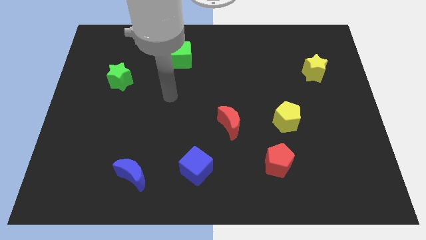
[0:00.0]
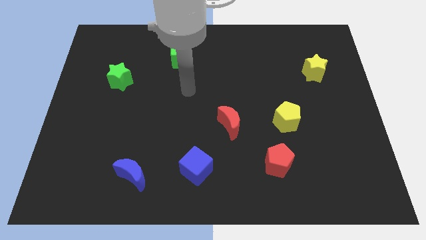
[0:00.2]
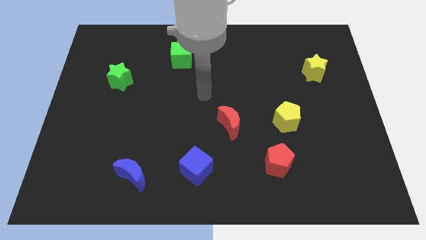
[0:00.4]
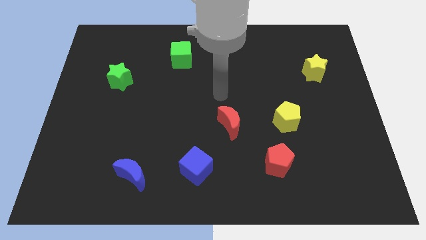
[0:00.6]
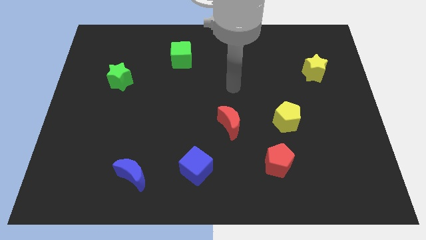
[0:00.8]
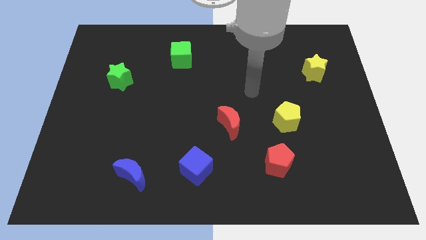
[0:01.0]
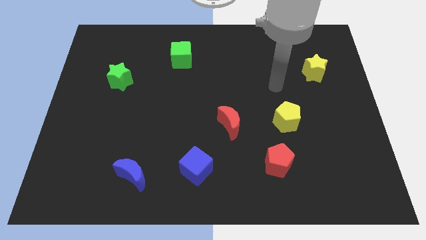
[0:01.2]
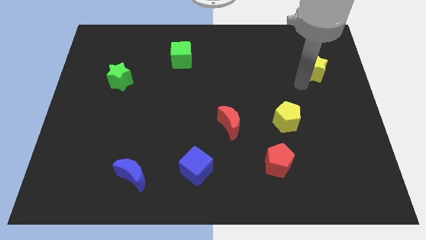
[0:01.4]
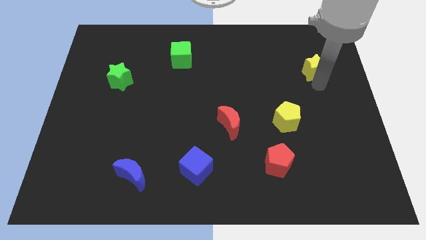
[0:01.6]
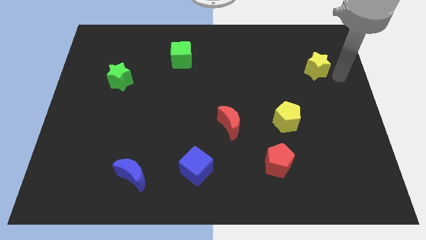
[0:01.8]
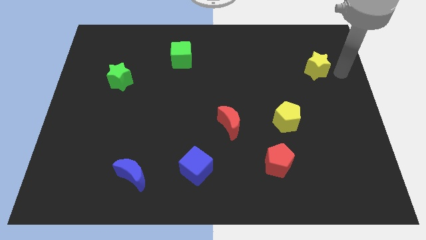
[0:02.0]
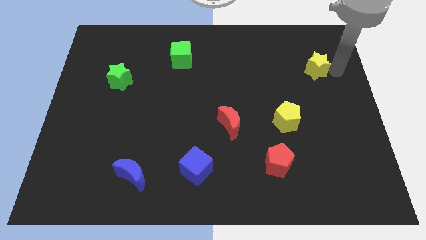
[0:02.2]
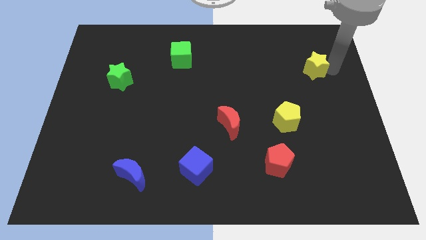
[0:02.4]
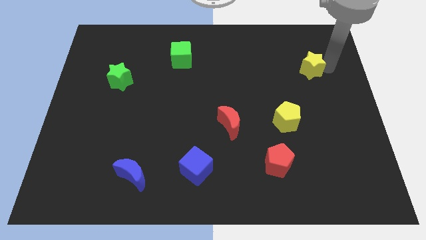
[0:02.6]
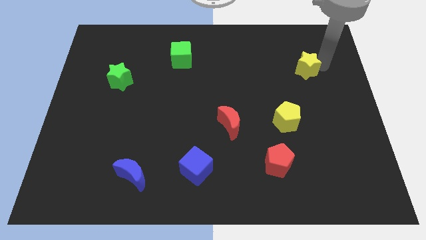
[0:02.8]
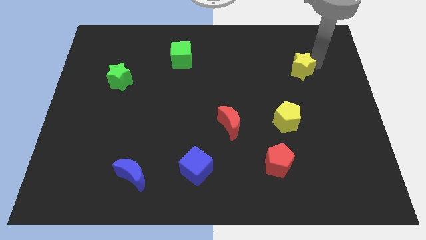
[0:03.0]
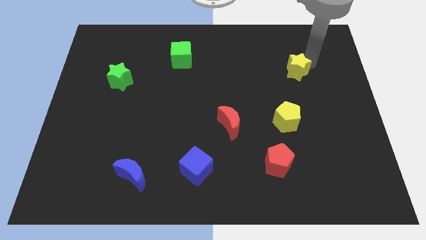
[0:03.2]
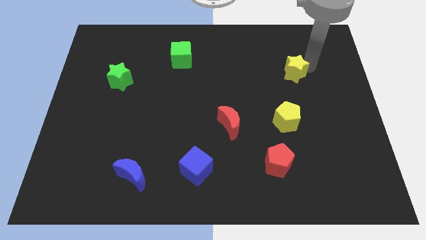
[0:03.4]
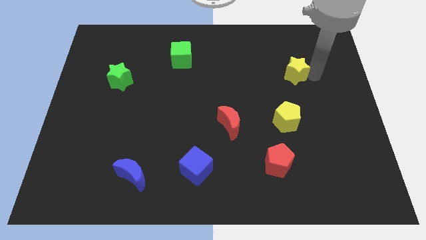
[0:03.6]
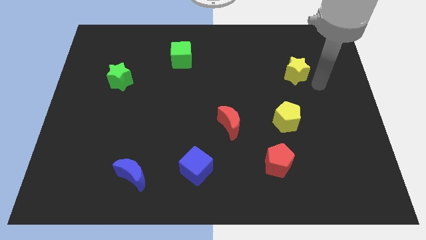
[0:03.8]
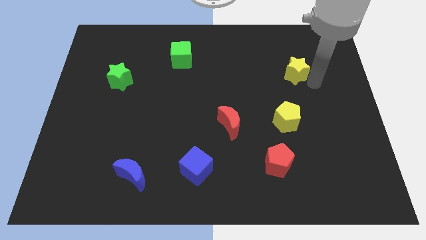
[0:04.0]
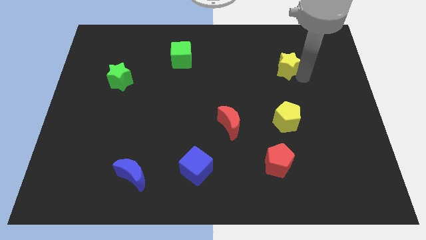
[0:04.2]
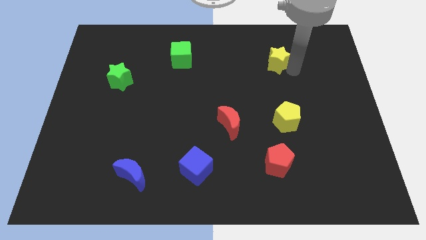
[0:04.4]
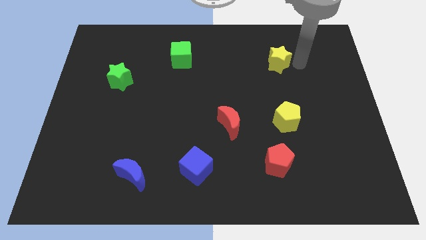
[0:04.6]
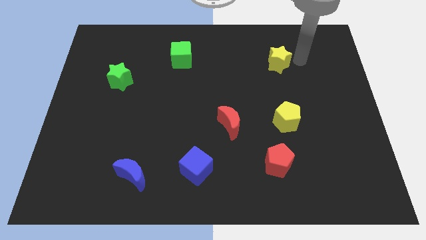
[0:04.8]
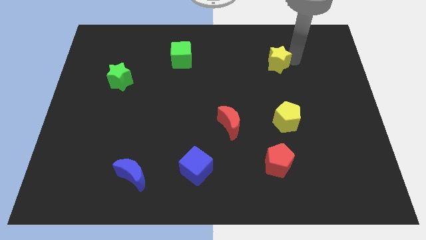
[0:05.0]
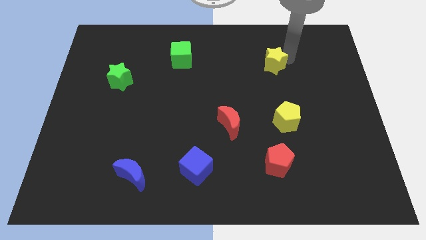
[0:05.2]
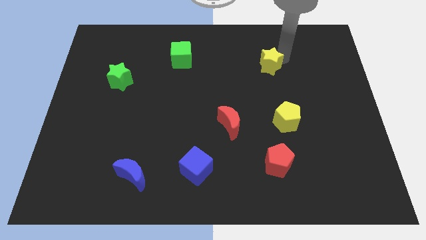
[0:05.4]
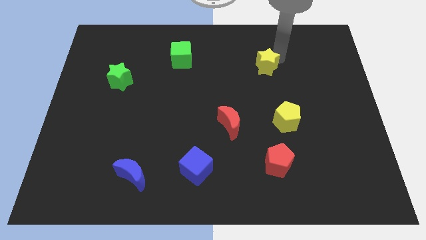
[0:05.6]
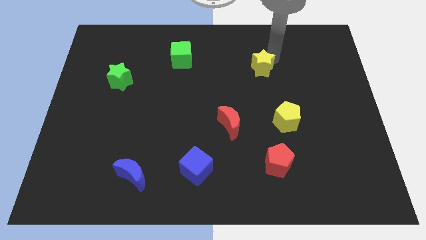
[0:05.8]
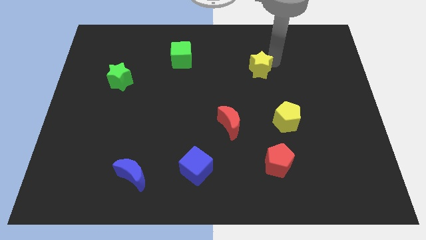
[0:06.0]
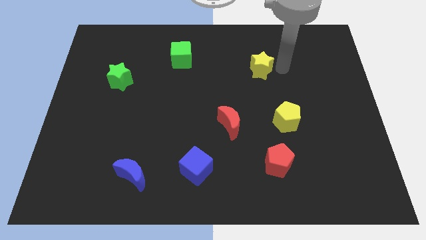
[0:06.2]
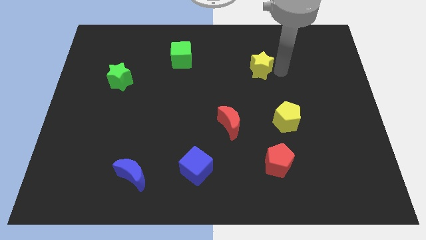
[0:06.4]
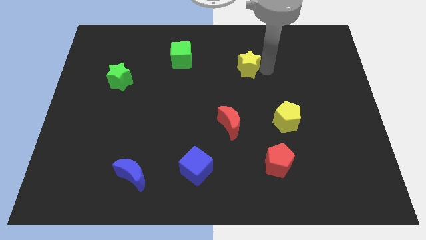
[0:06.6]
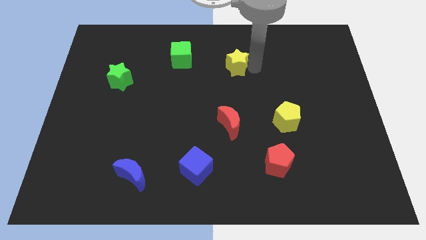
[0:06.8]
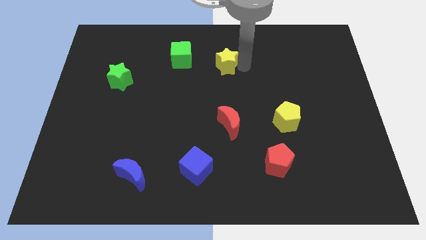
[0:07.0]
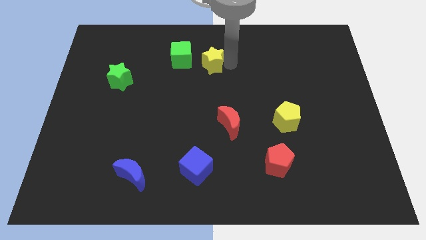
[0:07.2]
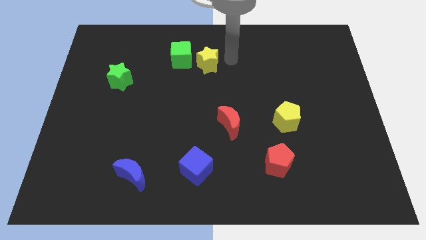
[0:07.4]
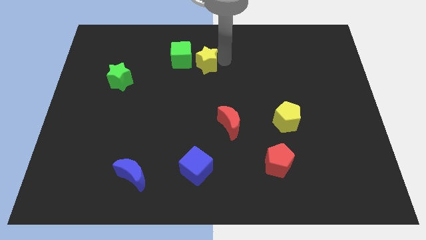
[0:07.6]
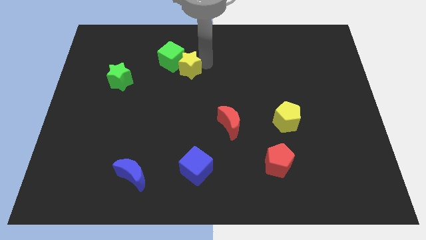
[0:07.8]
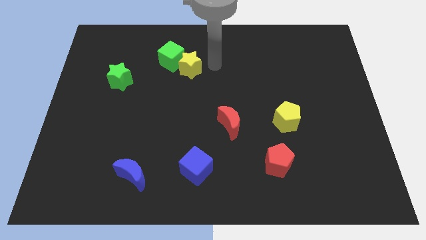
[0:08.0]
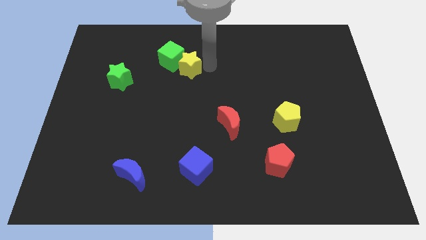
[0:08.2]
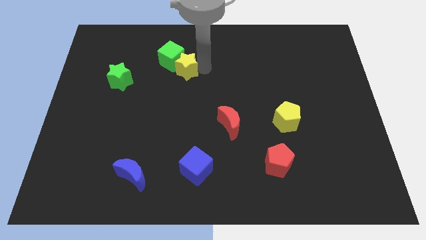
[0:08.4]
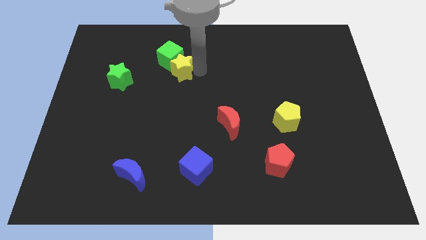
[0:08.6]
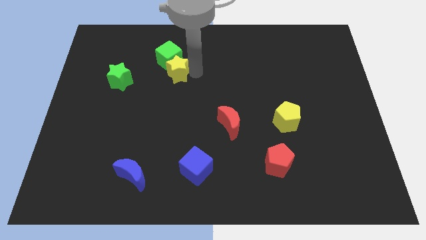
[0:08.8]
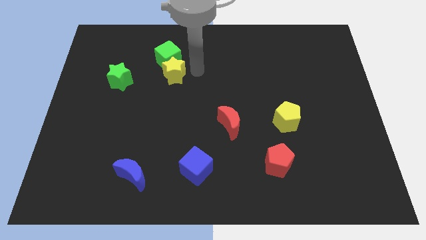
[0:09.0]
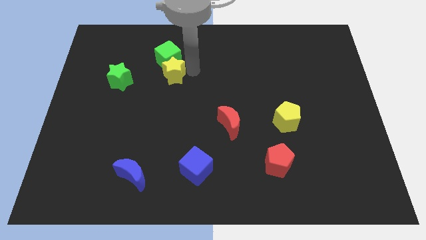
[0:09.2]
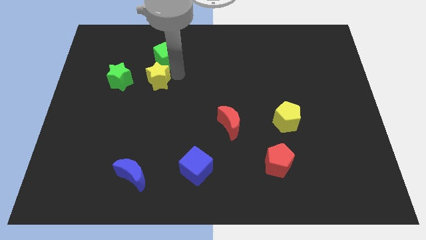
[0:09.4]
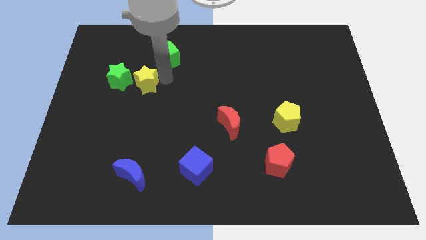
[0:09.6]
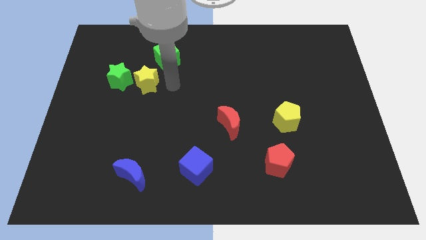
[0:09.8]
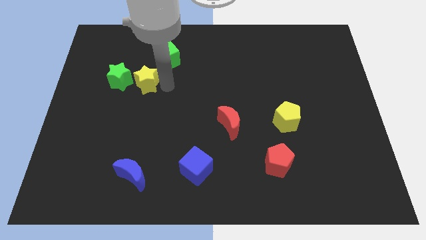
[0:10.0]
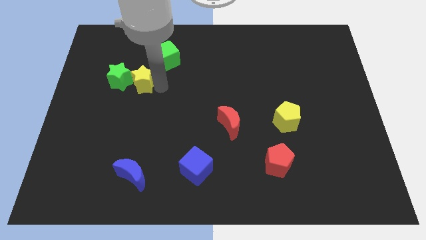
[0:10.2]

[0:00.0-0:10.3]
slide the yellow star to the green star

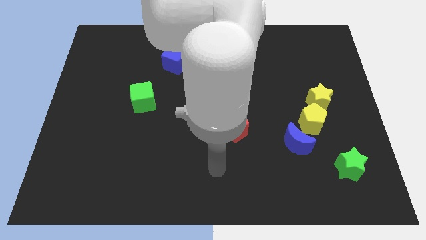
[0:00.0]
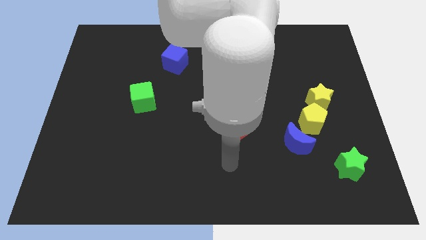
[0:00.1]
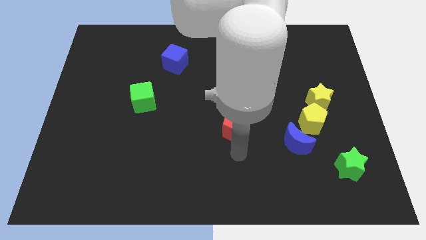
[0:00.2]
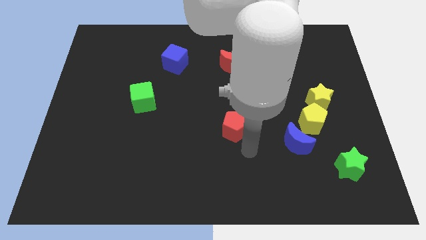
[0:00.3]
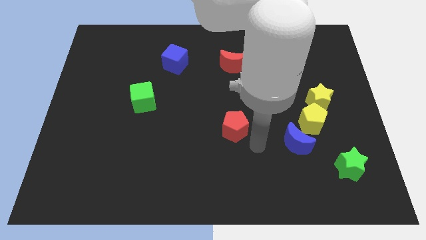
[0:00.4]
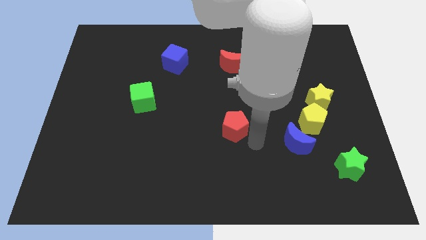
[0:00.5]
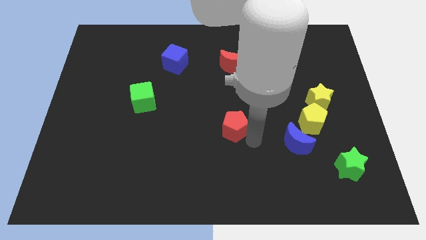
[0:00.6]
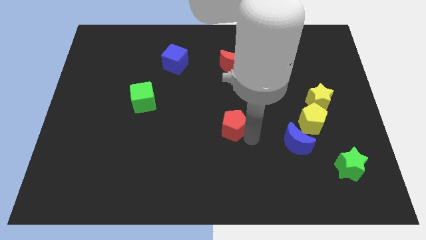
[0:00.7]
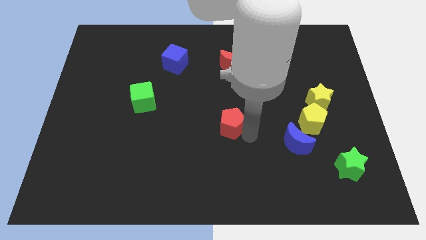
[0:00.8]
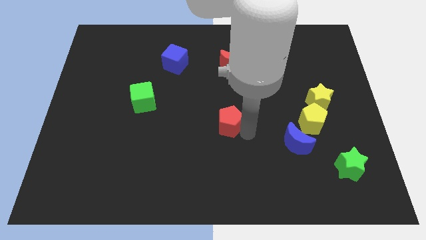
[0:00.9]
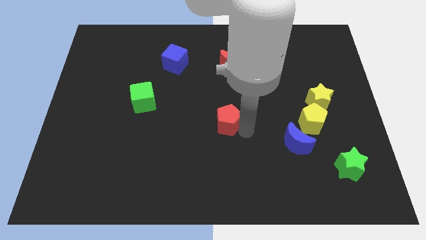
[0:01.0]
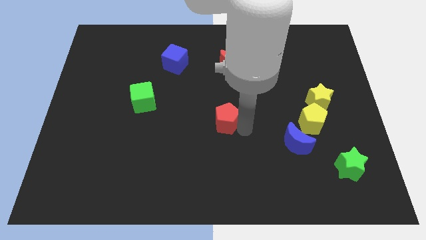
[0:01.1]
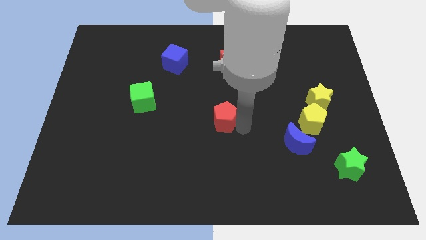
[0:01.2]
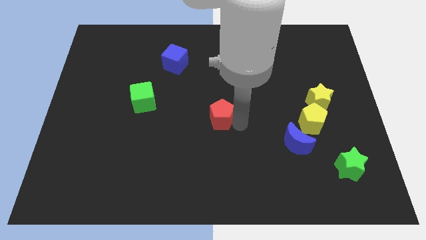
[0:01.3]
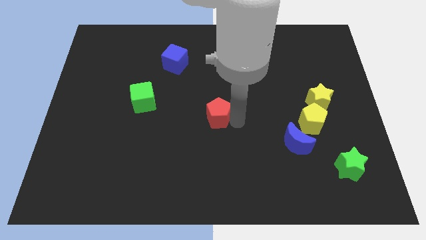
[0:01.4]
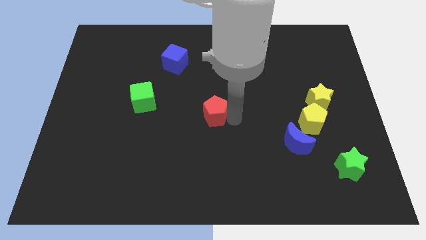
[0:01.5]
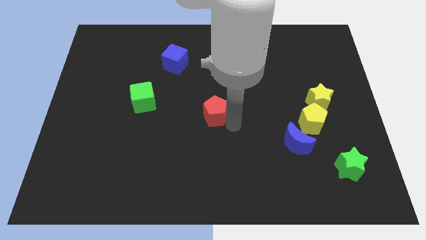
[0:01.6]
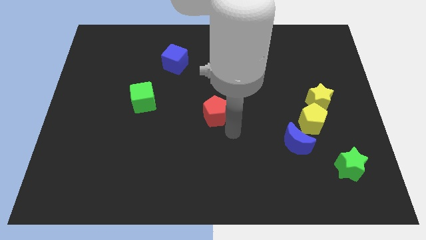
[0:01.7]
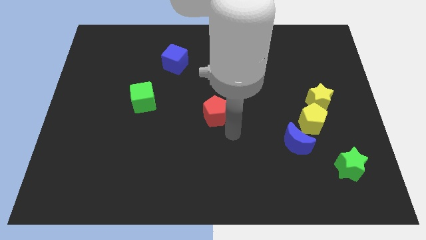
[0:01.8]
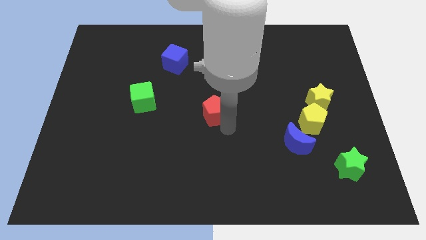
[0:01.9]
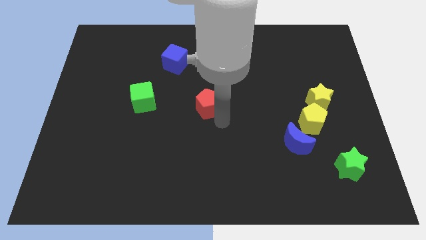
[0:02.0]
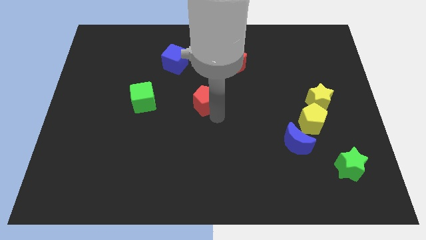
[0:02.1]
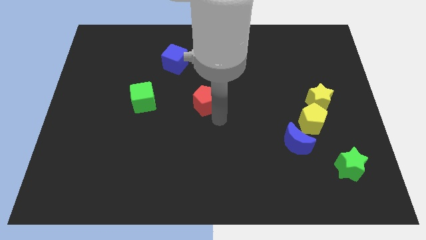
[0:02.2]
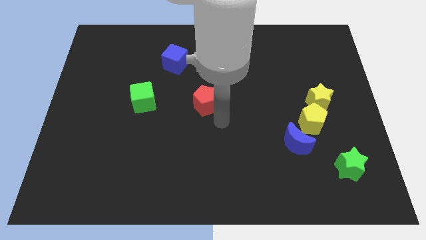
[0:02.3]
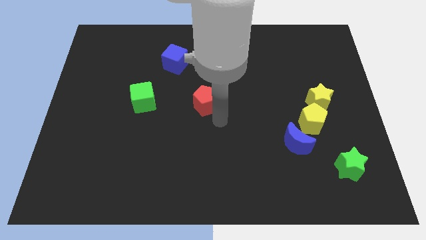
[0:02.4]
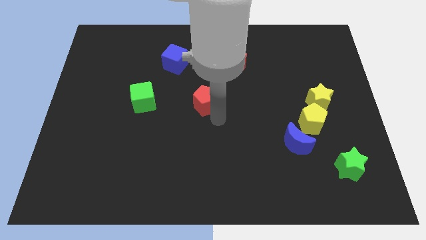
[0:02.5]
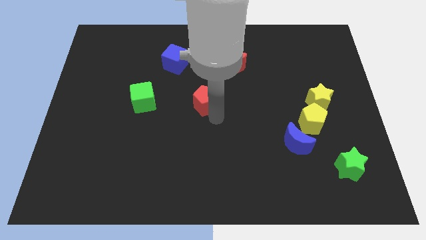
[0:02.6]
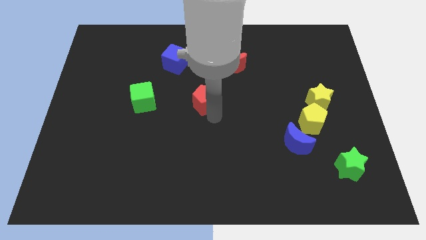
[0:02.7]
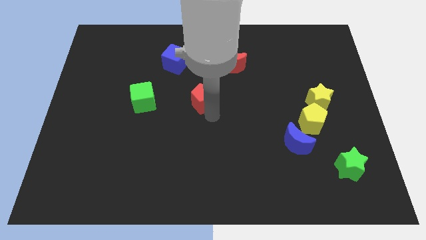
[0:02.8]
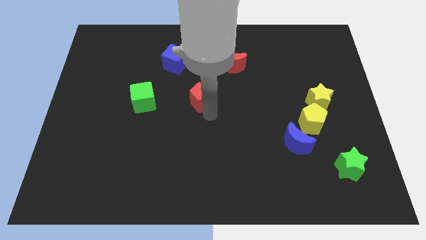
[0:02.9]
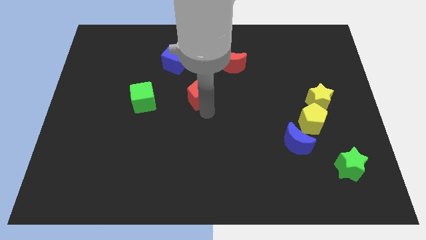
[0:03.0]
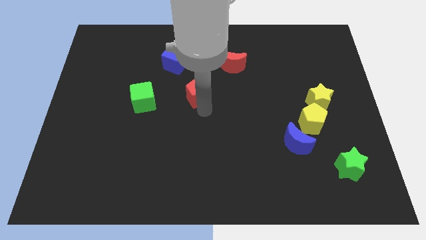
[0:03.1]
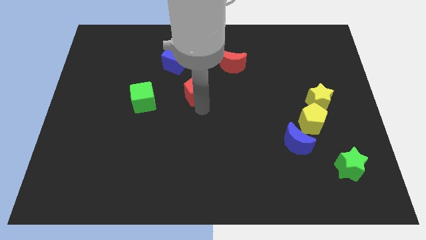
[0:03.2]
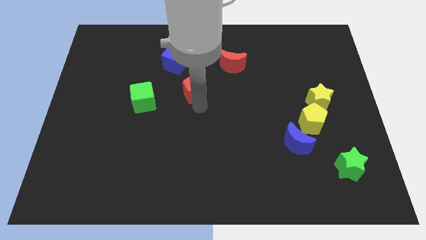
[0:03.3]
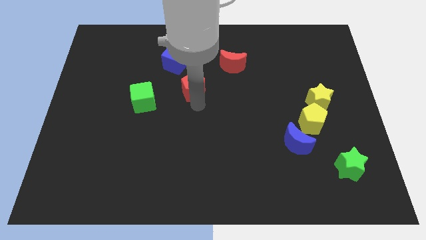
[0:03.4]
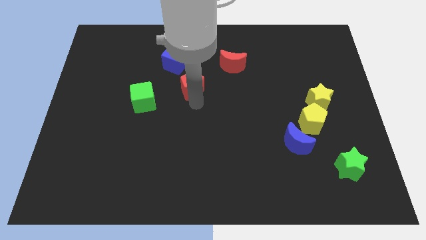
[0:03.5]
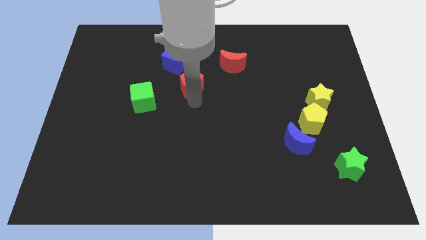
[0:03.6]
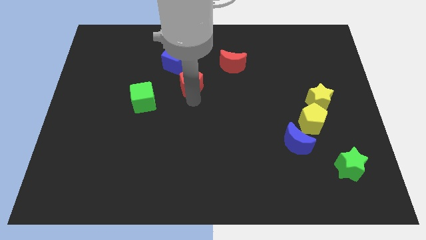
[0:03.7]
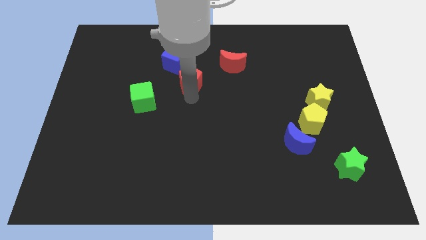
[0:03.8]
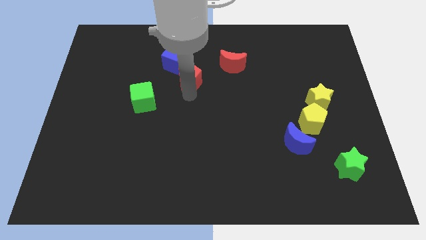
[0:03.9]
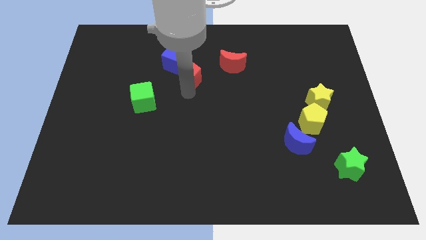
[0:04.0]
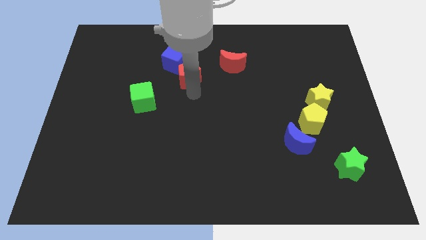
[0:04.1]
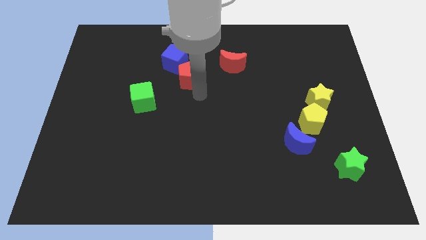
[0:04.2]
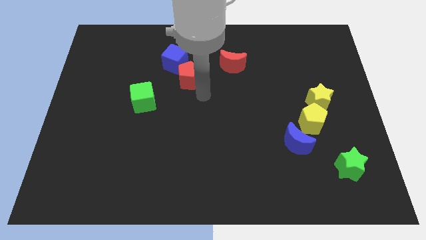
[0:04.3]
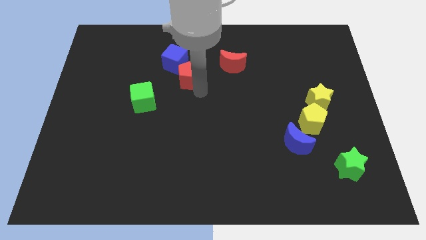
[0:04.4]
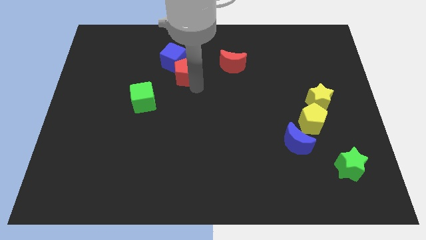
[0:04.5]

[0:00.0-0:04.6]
put the red pentagon close to the blue cube
